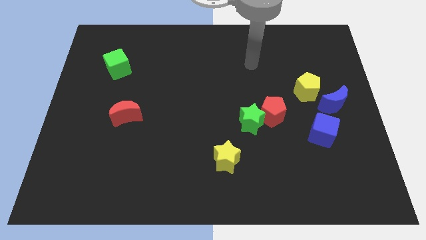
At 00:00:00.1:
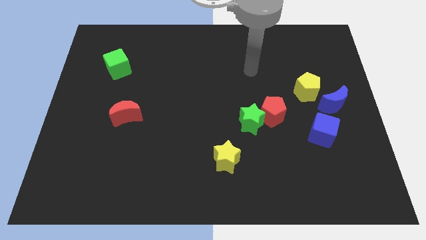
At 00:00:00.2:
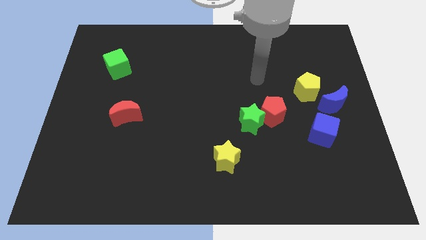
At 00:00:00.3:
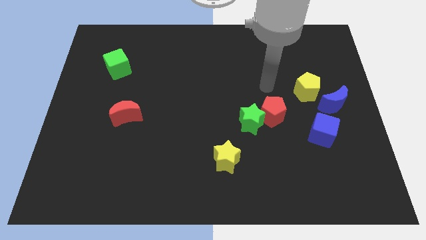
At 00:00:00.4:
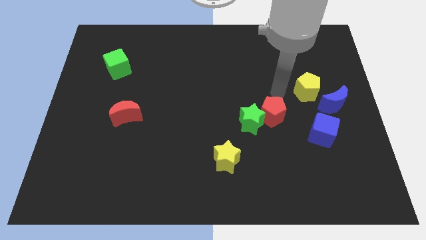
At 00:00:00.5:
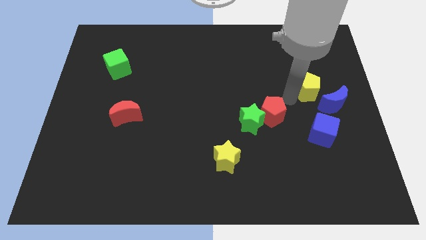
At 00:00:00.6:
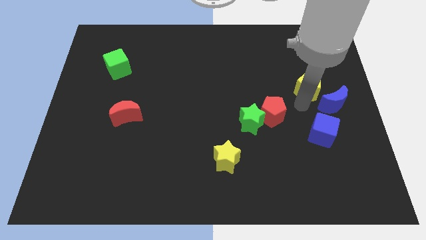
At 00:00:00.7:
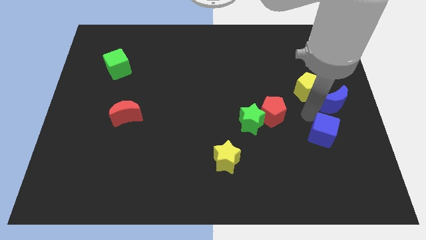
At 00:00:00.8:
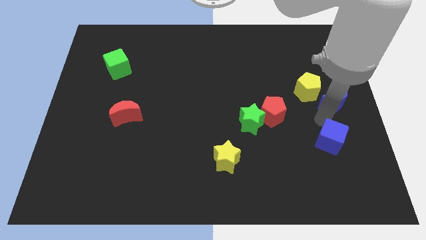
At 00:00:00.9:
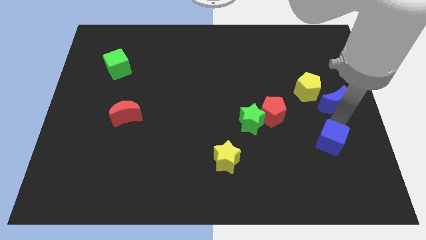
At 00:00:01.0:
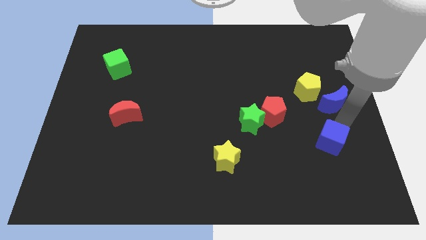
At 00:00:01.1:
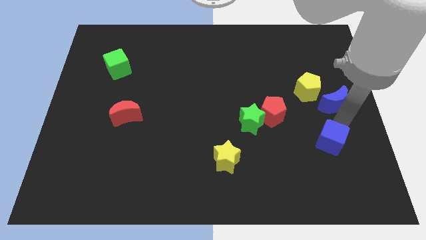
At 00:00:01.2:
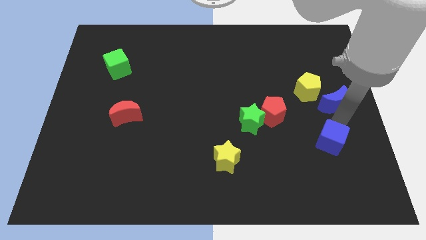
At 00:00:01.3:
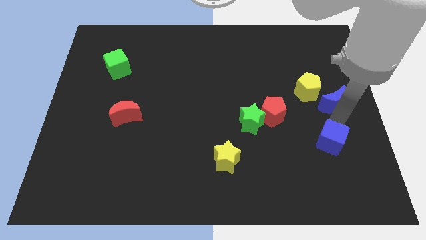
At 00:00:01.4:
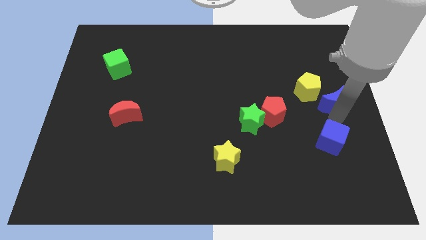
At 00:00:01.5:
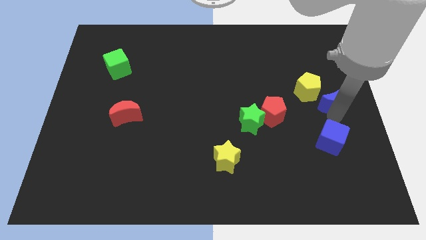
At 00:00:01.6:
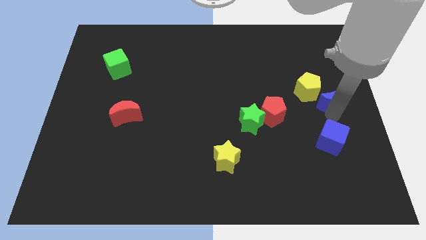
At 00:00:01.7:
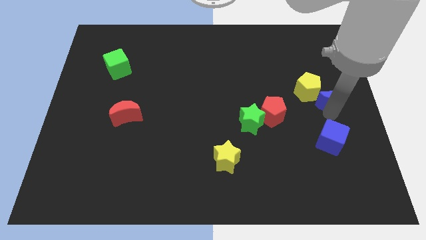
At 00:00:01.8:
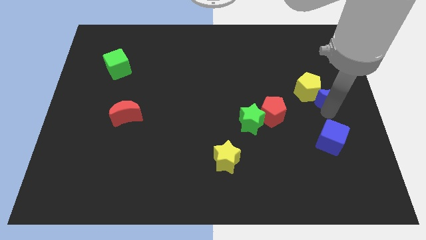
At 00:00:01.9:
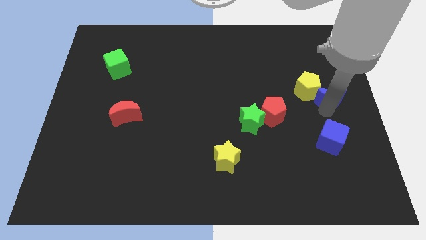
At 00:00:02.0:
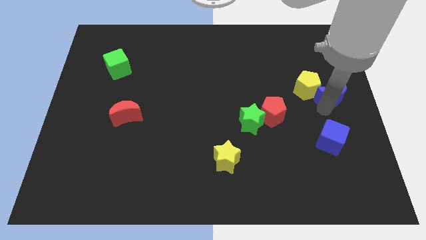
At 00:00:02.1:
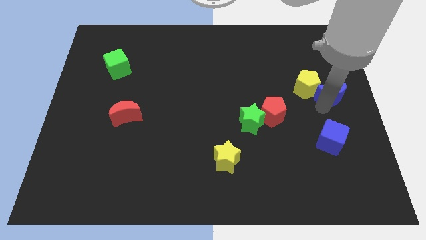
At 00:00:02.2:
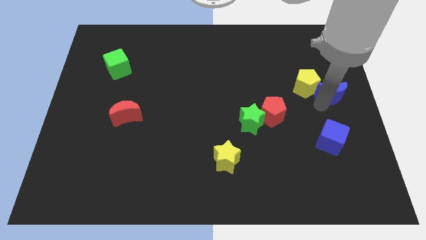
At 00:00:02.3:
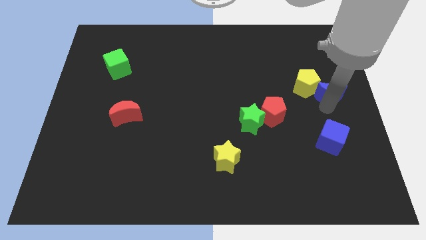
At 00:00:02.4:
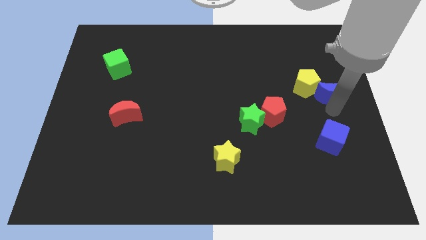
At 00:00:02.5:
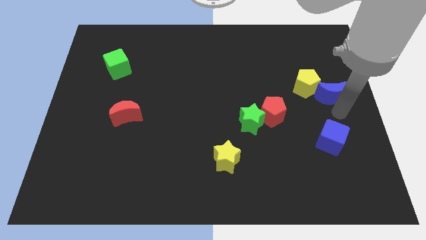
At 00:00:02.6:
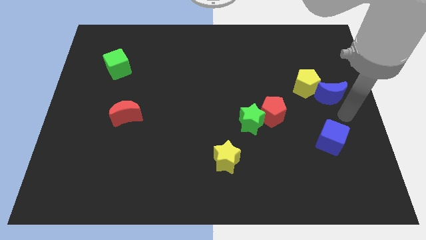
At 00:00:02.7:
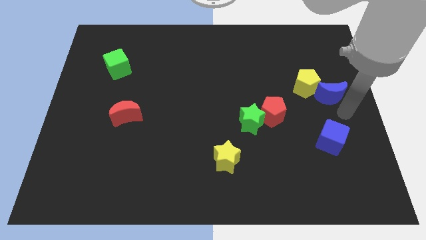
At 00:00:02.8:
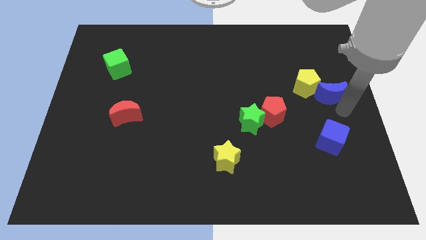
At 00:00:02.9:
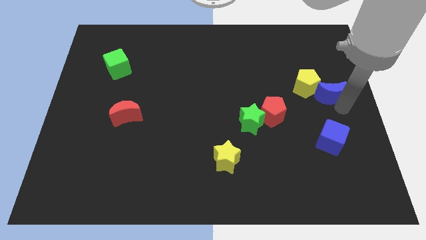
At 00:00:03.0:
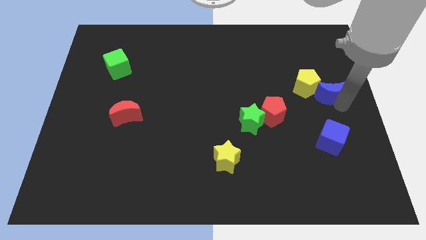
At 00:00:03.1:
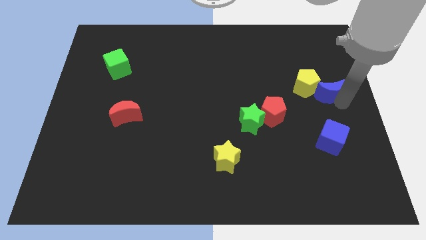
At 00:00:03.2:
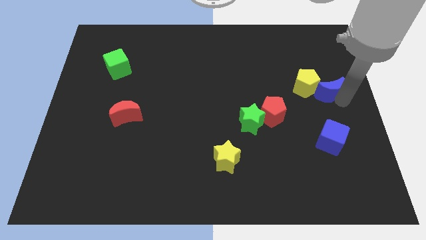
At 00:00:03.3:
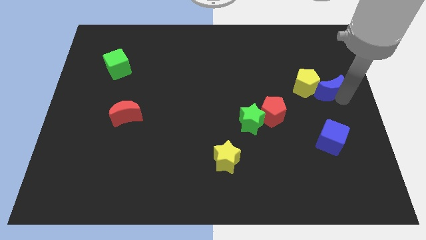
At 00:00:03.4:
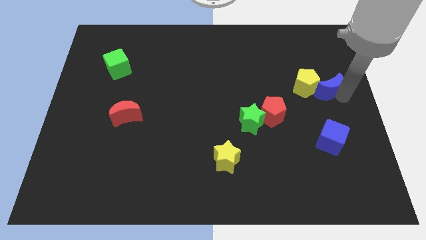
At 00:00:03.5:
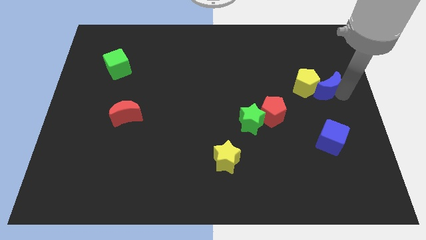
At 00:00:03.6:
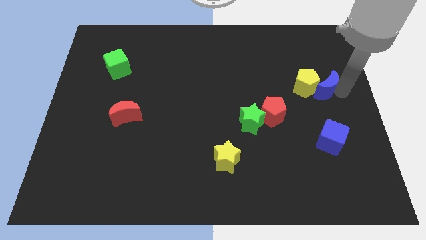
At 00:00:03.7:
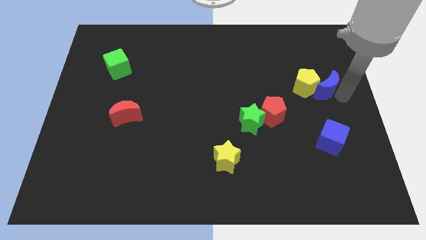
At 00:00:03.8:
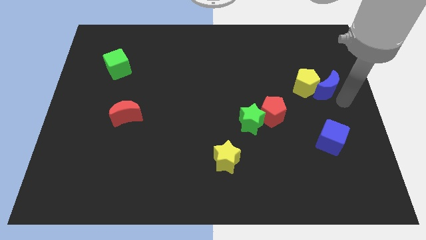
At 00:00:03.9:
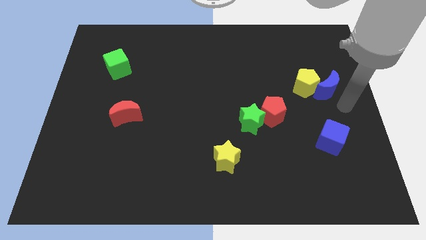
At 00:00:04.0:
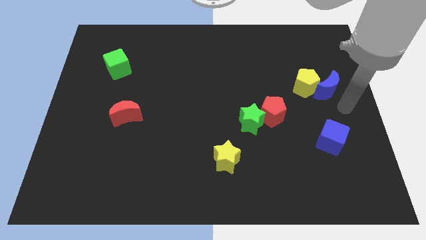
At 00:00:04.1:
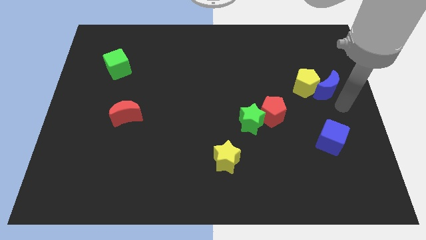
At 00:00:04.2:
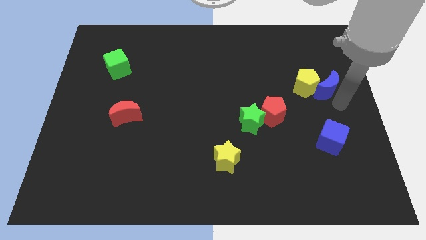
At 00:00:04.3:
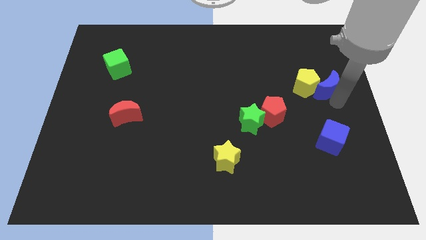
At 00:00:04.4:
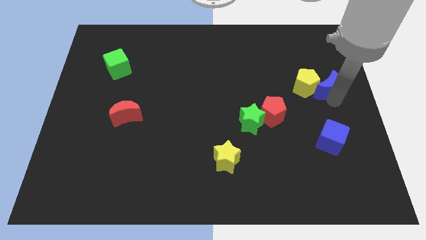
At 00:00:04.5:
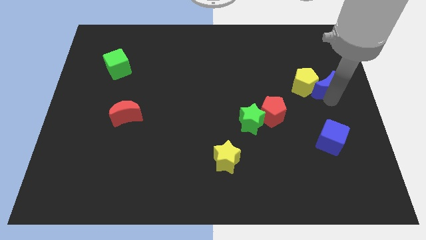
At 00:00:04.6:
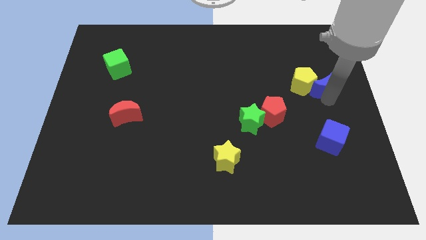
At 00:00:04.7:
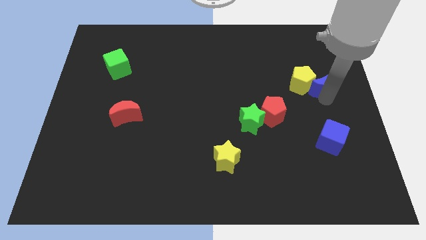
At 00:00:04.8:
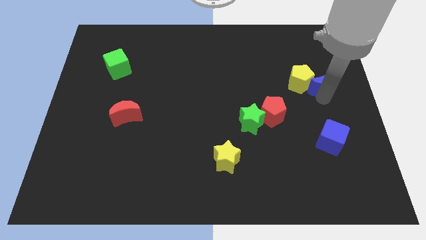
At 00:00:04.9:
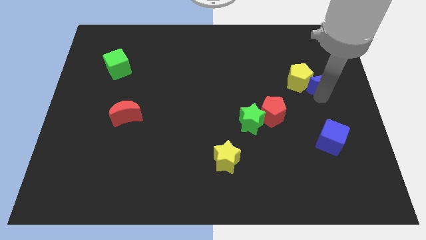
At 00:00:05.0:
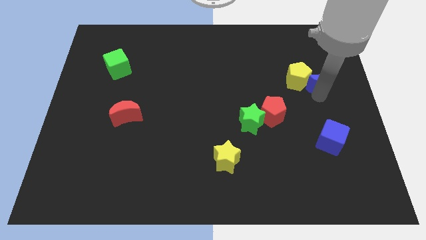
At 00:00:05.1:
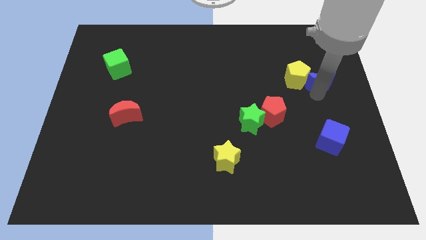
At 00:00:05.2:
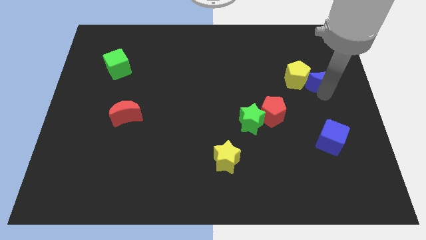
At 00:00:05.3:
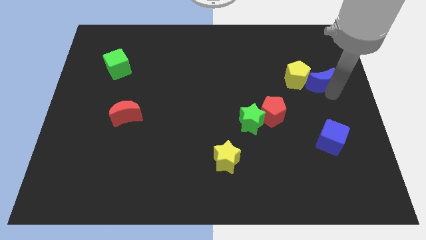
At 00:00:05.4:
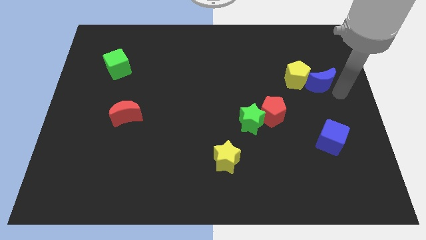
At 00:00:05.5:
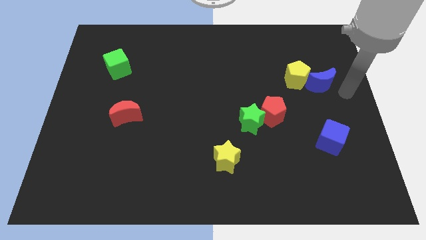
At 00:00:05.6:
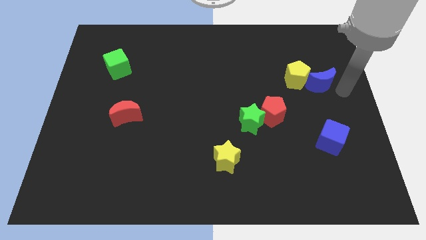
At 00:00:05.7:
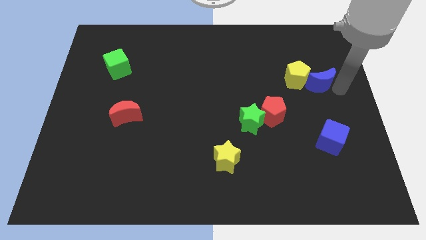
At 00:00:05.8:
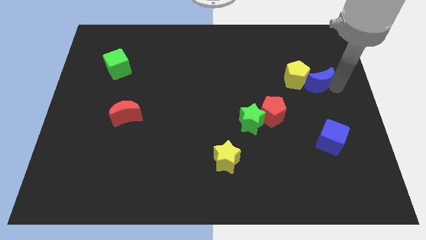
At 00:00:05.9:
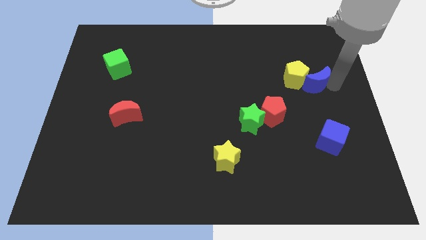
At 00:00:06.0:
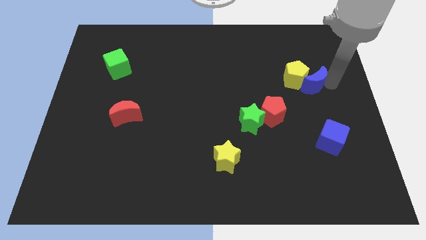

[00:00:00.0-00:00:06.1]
push the blue moon somewhat up and then left

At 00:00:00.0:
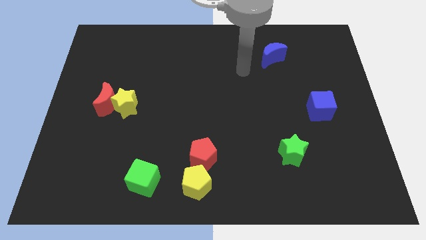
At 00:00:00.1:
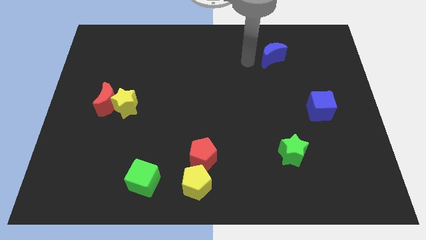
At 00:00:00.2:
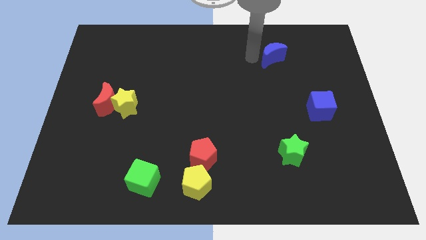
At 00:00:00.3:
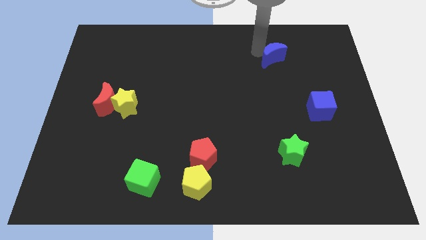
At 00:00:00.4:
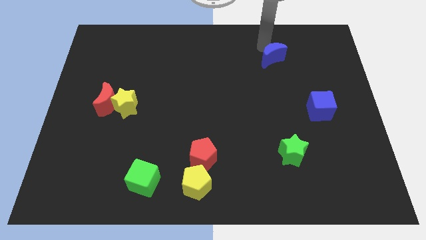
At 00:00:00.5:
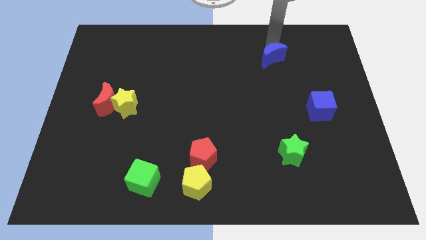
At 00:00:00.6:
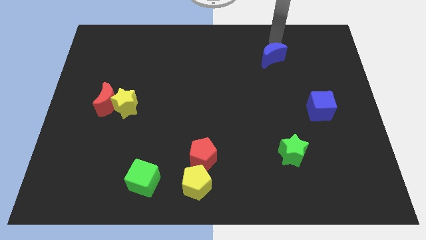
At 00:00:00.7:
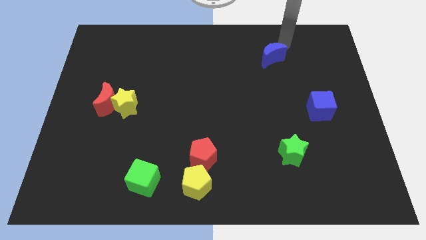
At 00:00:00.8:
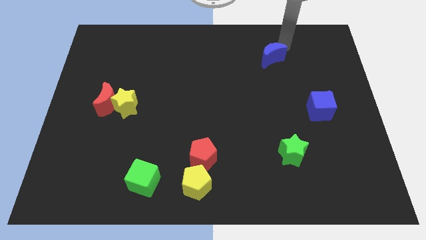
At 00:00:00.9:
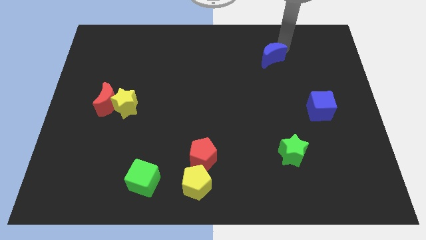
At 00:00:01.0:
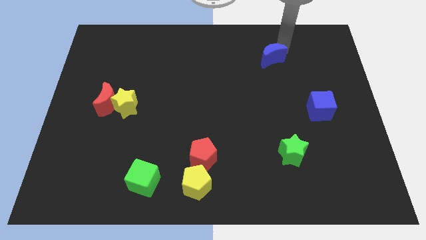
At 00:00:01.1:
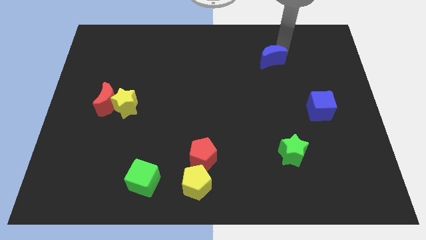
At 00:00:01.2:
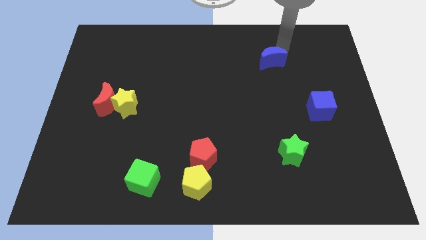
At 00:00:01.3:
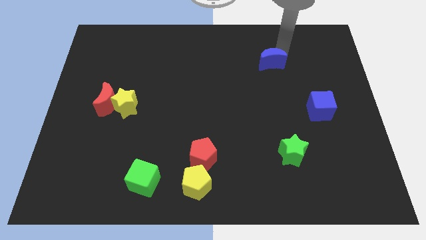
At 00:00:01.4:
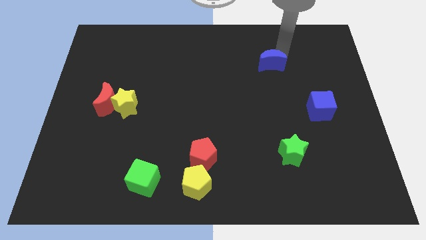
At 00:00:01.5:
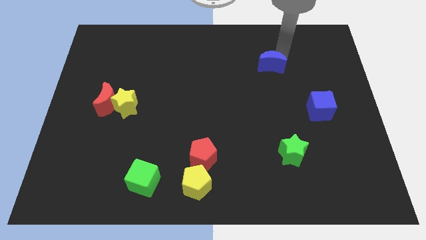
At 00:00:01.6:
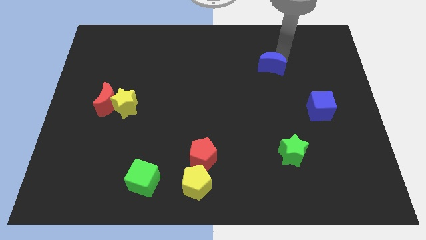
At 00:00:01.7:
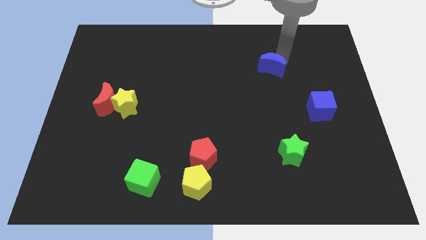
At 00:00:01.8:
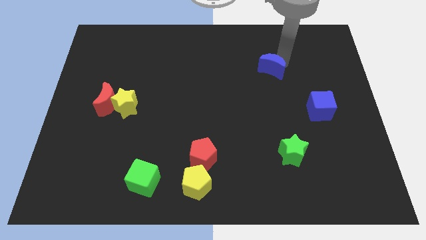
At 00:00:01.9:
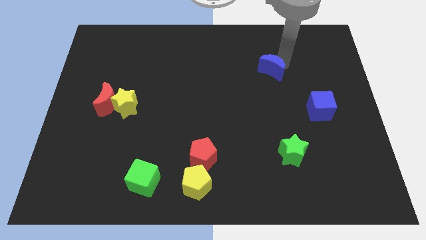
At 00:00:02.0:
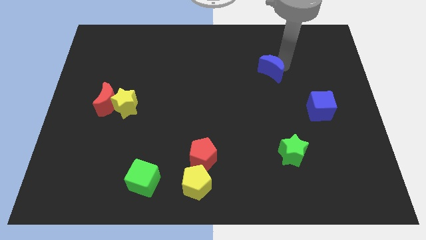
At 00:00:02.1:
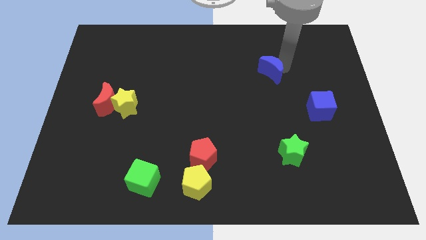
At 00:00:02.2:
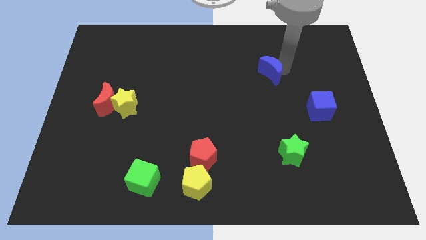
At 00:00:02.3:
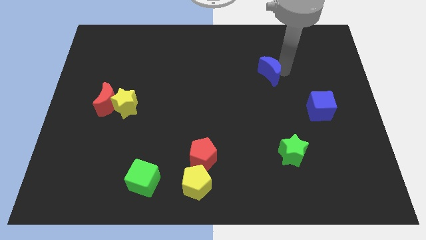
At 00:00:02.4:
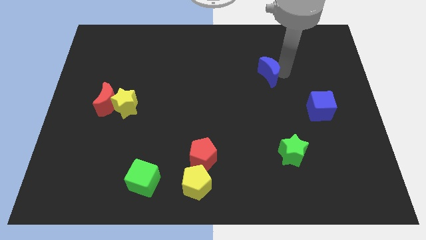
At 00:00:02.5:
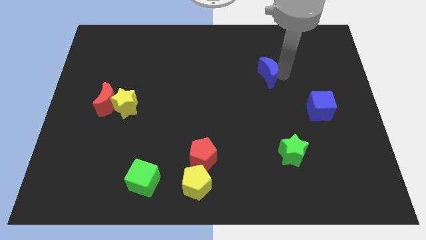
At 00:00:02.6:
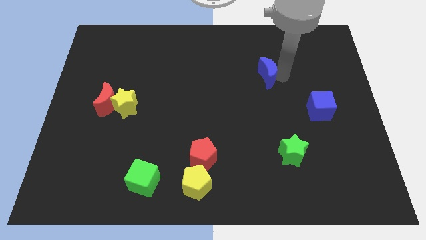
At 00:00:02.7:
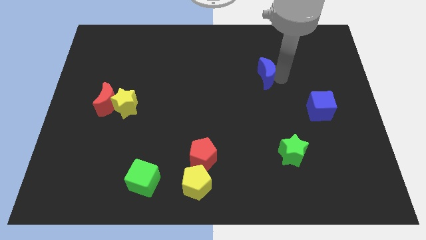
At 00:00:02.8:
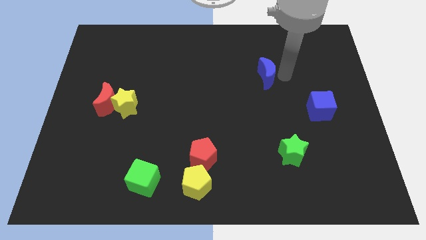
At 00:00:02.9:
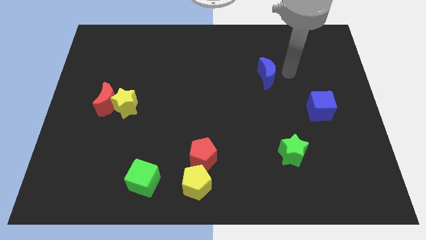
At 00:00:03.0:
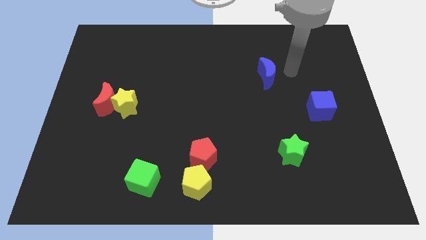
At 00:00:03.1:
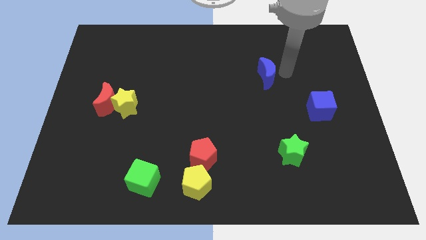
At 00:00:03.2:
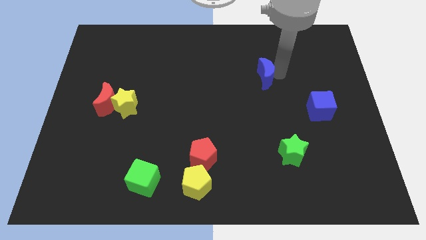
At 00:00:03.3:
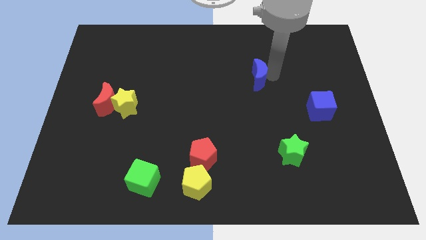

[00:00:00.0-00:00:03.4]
move the blue moon a little down and then left
